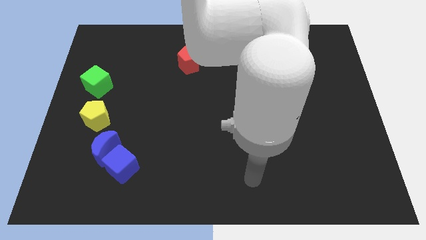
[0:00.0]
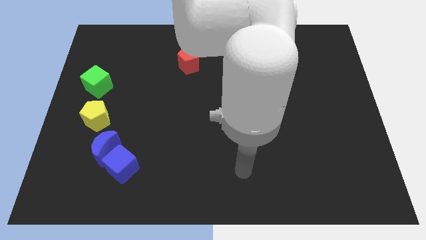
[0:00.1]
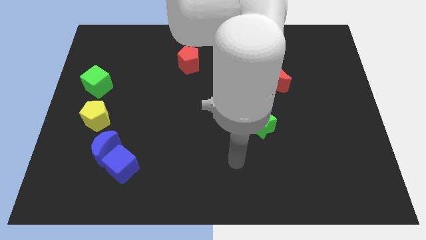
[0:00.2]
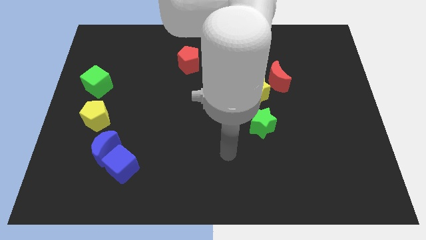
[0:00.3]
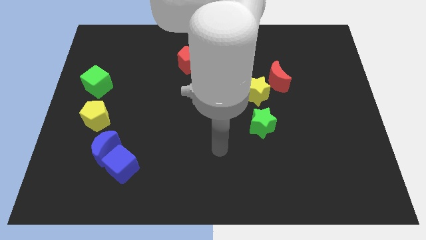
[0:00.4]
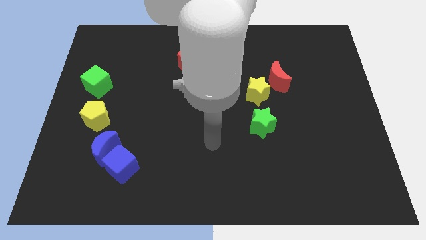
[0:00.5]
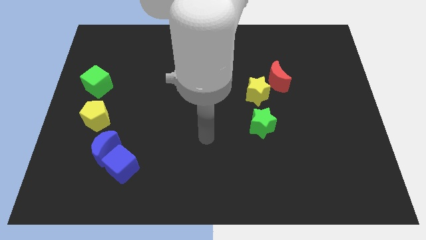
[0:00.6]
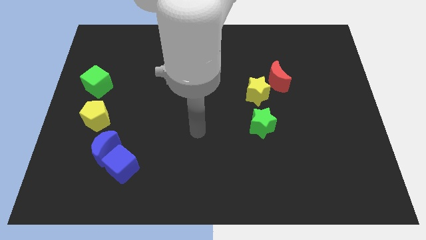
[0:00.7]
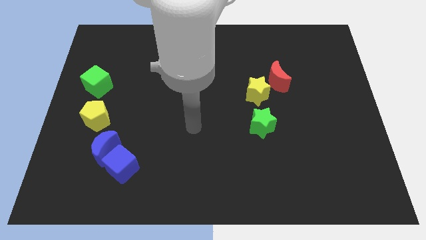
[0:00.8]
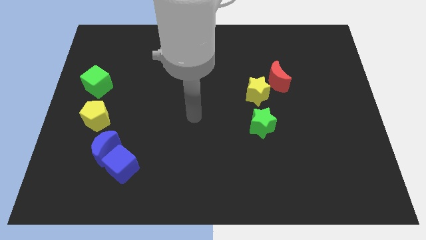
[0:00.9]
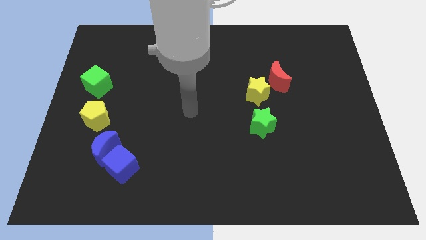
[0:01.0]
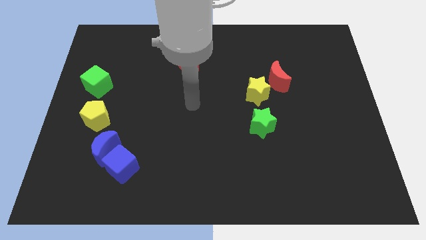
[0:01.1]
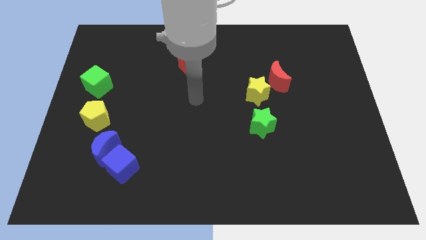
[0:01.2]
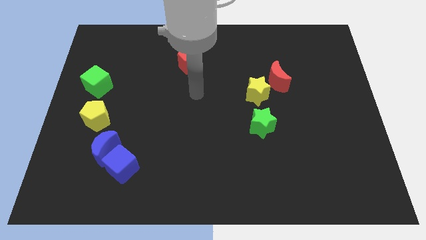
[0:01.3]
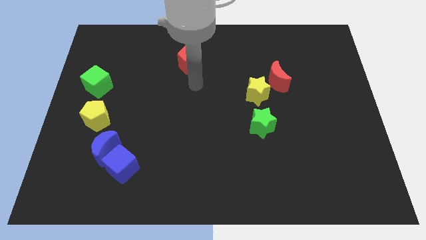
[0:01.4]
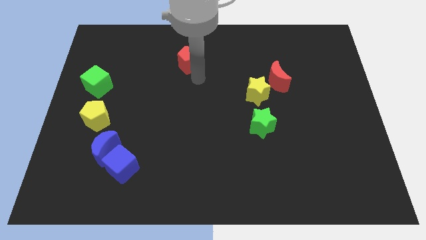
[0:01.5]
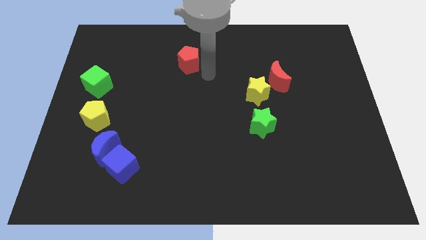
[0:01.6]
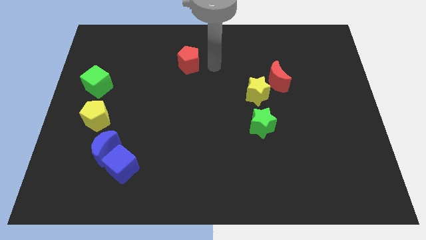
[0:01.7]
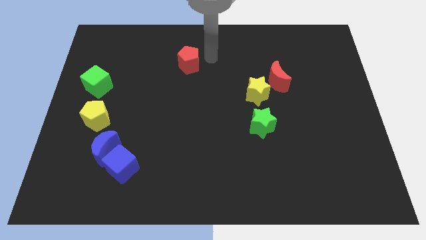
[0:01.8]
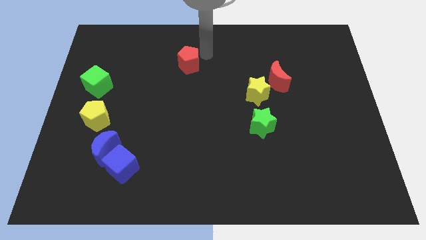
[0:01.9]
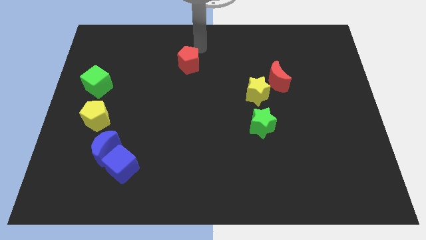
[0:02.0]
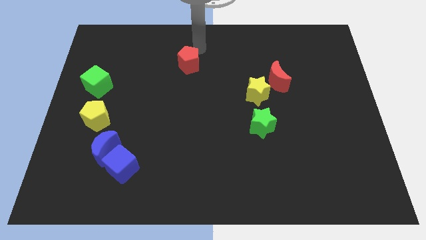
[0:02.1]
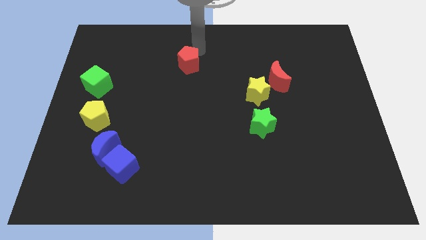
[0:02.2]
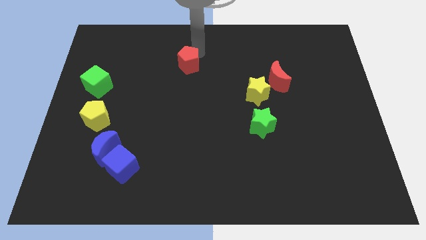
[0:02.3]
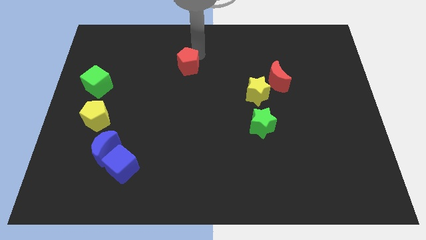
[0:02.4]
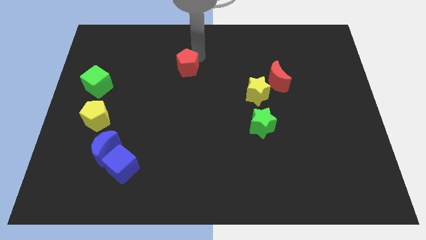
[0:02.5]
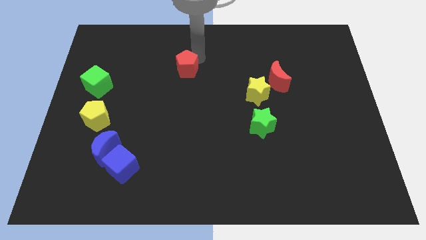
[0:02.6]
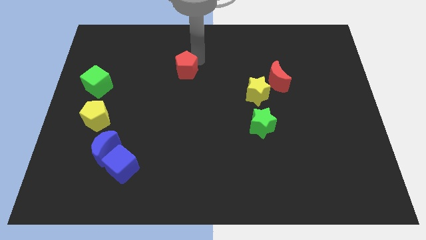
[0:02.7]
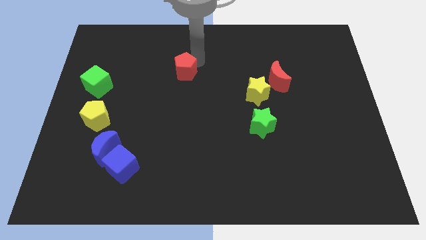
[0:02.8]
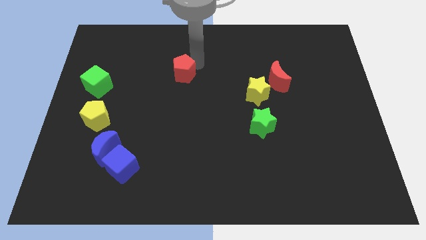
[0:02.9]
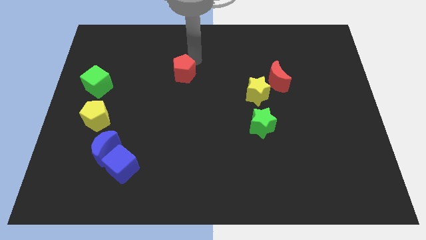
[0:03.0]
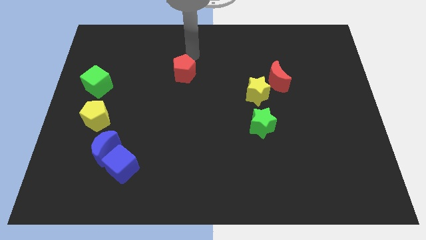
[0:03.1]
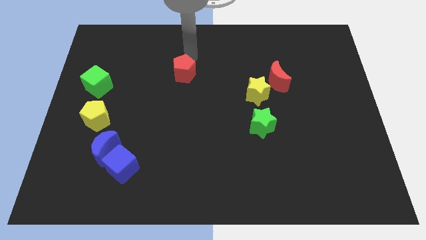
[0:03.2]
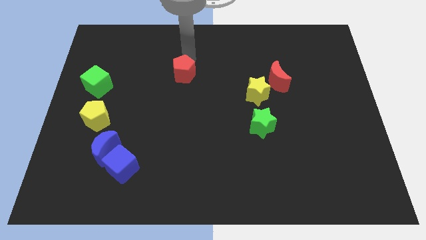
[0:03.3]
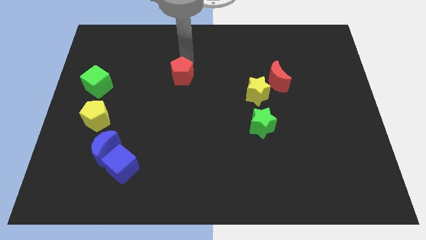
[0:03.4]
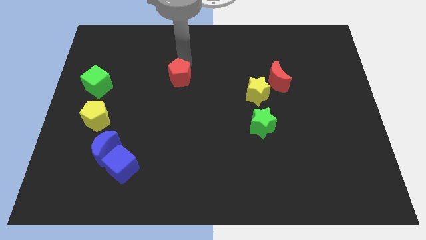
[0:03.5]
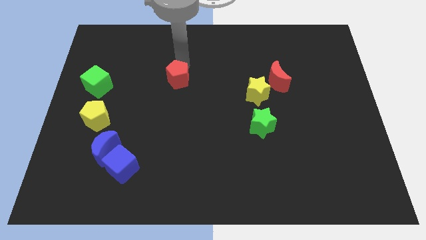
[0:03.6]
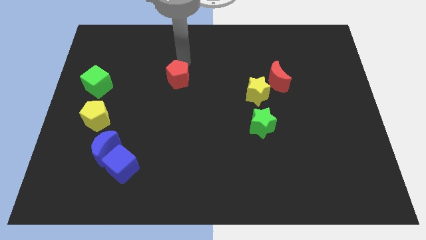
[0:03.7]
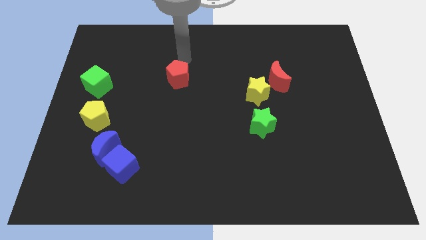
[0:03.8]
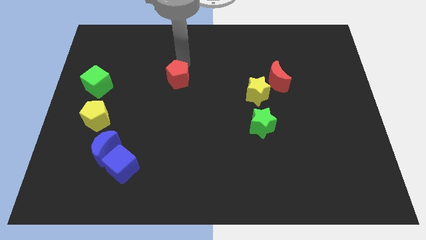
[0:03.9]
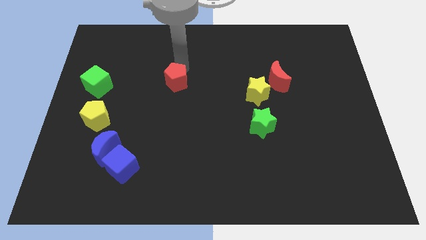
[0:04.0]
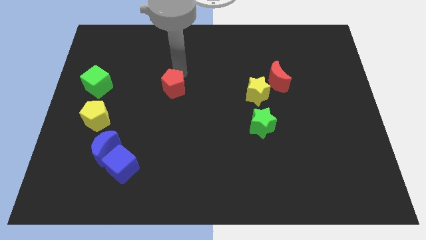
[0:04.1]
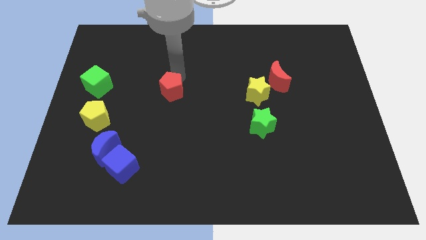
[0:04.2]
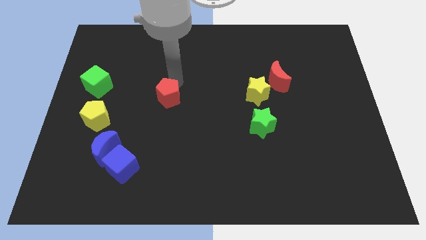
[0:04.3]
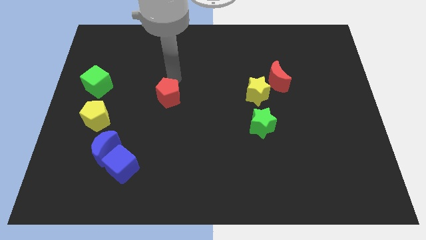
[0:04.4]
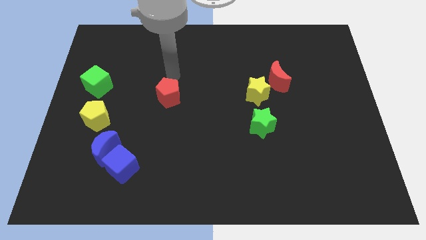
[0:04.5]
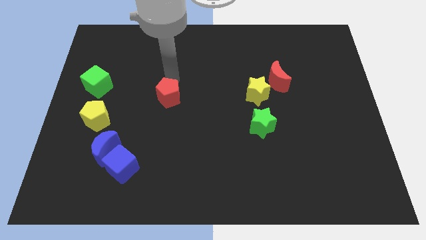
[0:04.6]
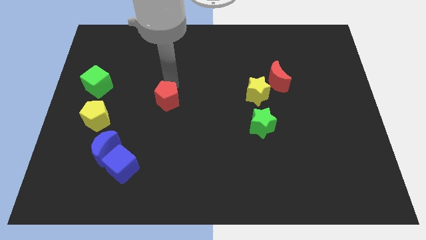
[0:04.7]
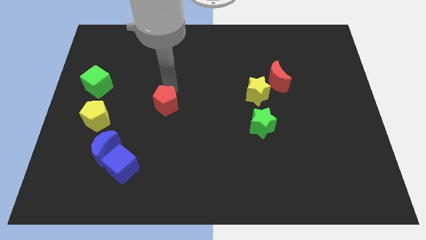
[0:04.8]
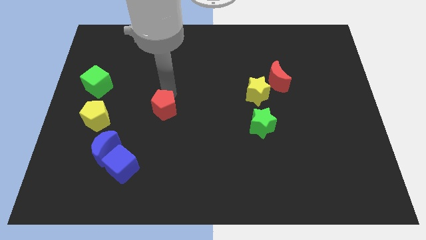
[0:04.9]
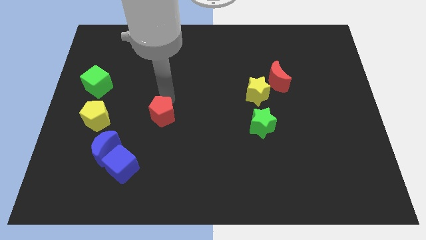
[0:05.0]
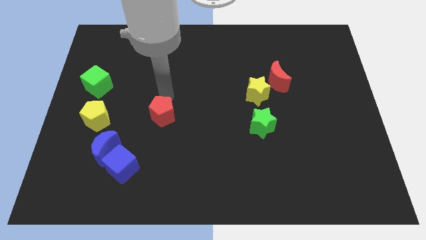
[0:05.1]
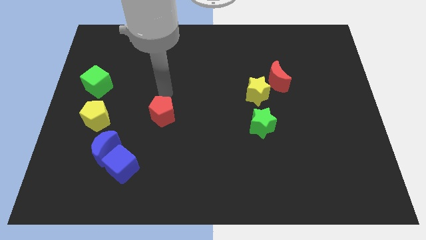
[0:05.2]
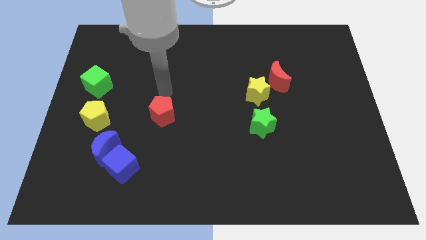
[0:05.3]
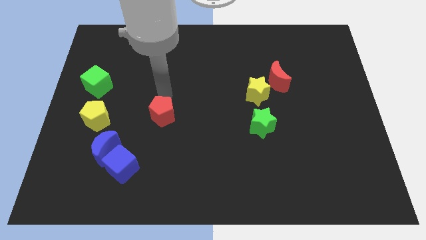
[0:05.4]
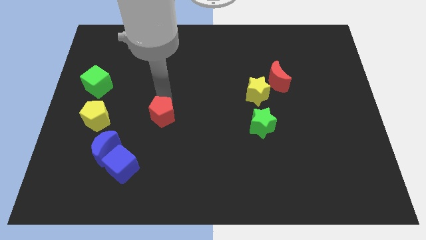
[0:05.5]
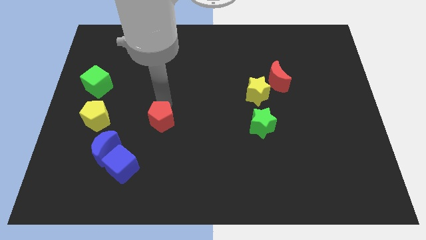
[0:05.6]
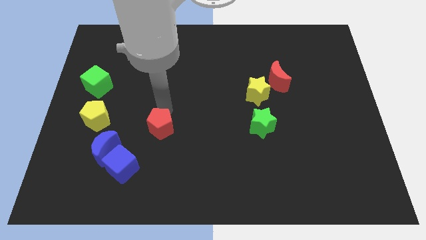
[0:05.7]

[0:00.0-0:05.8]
move the red pentagon diagonally up and to the right of the blue cube
